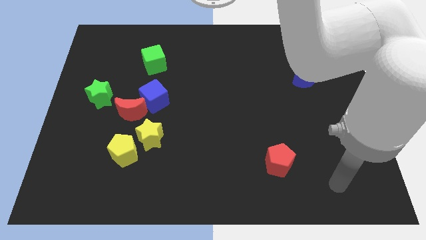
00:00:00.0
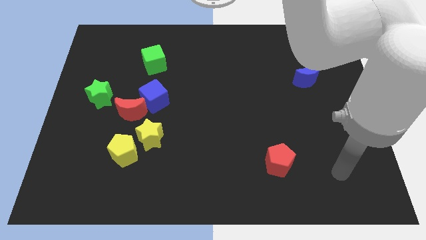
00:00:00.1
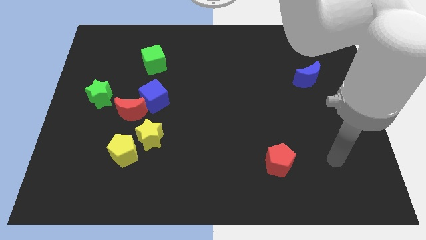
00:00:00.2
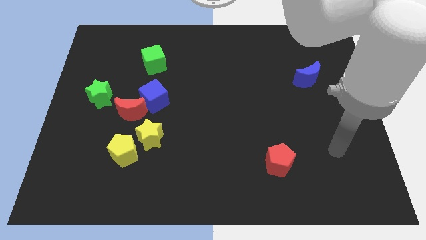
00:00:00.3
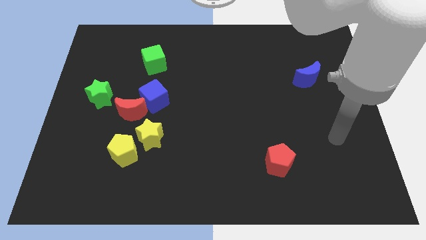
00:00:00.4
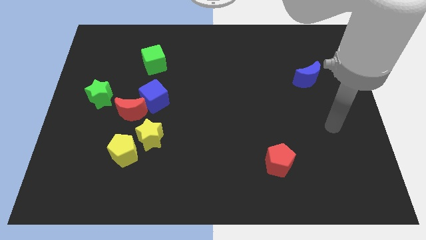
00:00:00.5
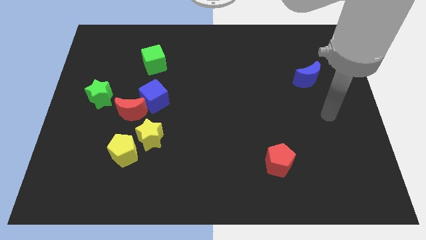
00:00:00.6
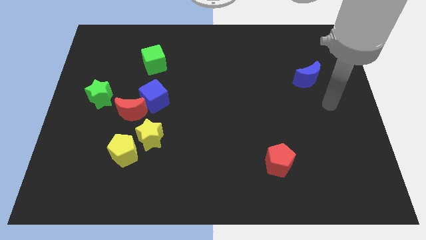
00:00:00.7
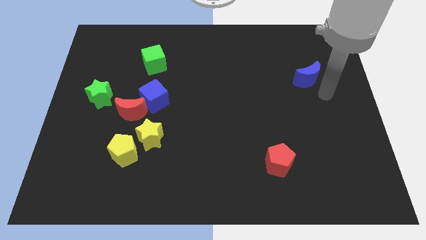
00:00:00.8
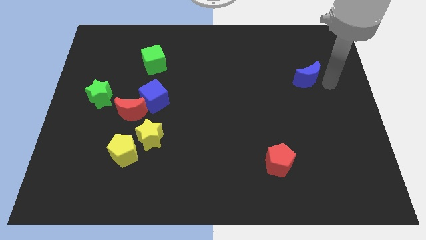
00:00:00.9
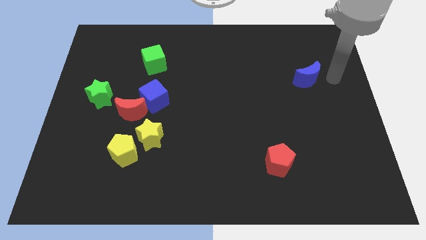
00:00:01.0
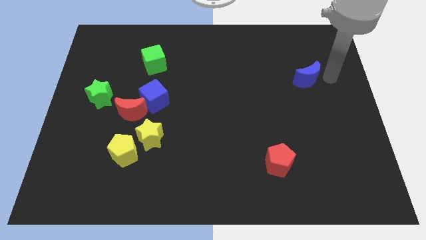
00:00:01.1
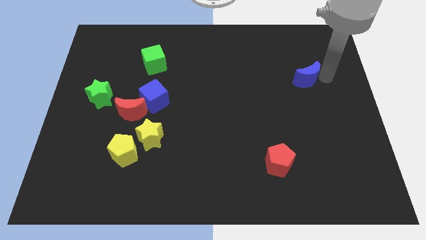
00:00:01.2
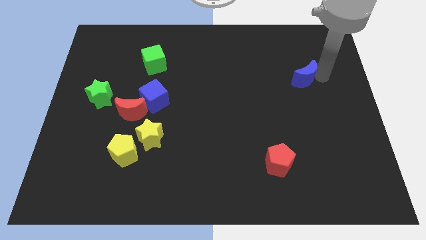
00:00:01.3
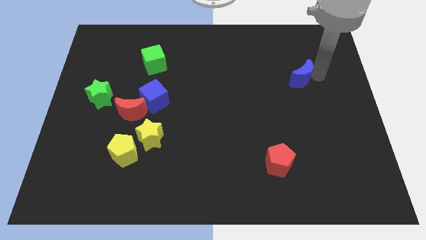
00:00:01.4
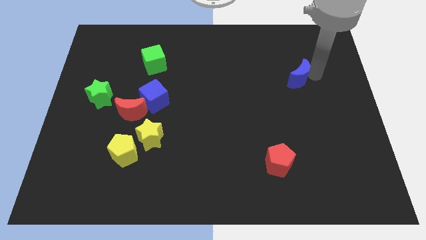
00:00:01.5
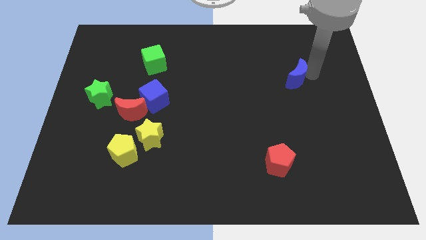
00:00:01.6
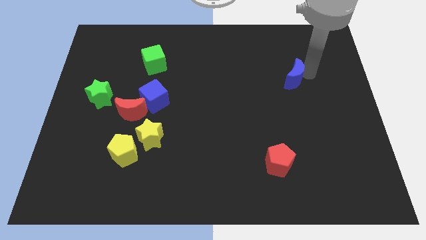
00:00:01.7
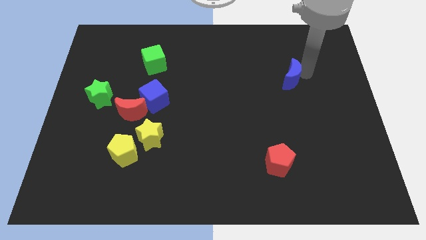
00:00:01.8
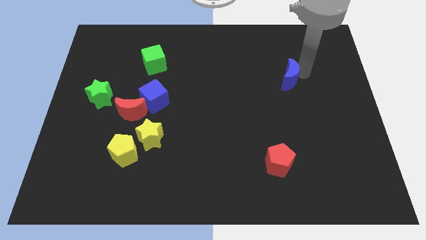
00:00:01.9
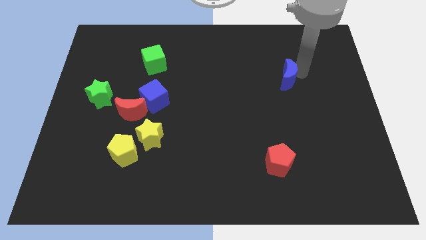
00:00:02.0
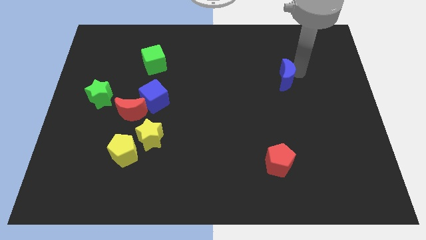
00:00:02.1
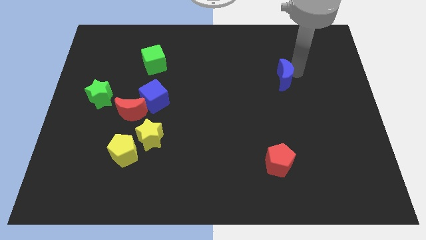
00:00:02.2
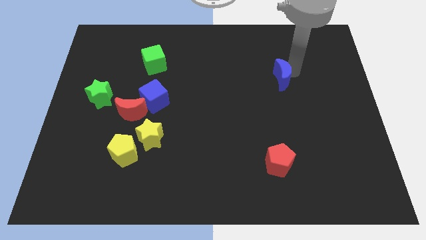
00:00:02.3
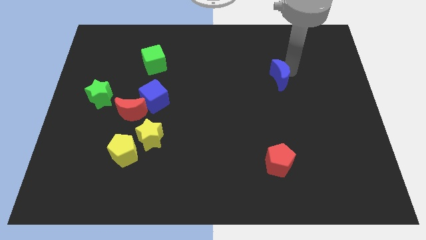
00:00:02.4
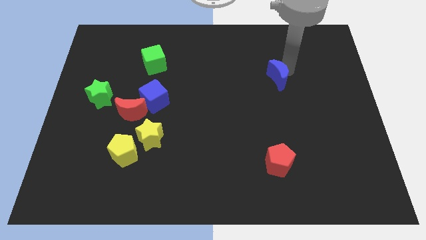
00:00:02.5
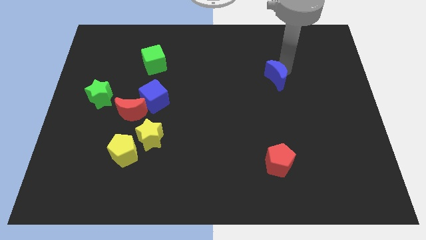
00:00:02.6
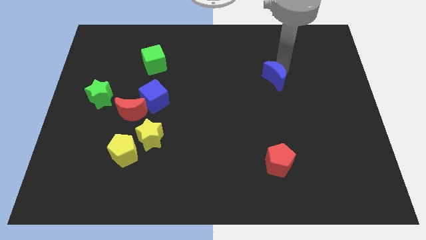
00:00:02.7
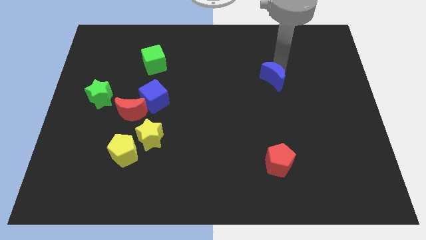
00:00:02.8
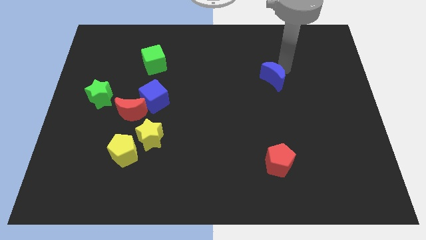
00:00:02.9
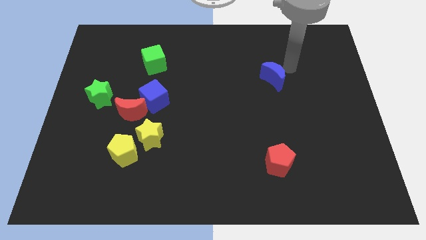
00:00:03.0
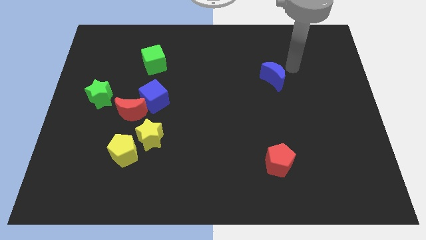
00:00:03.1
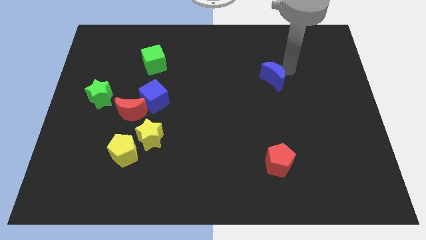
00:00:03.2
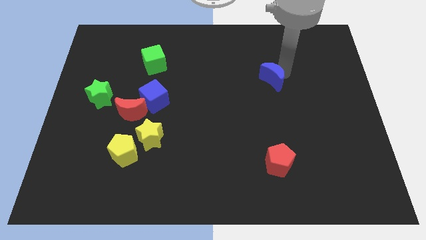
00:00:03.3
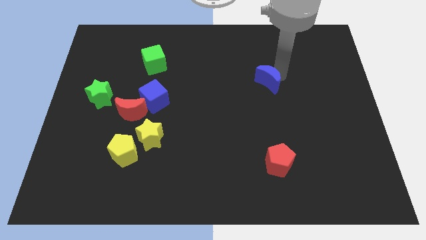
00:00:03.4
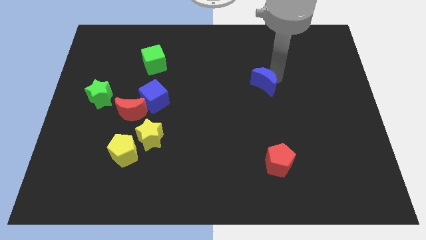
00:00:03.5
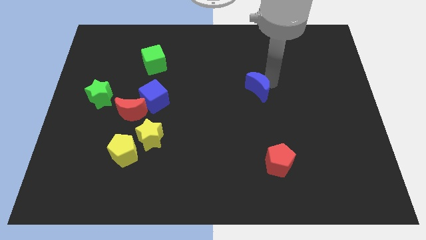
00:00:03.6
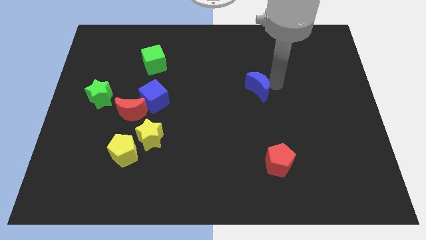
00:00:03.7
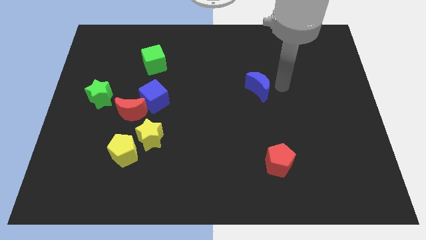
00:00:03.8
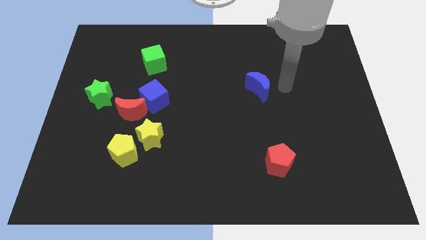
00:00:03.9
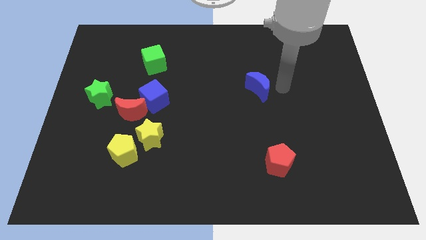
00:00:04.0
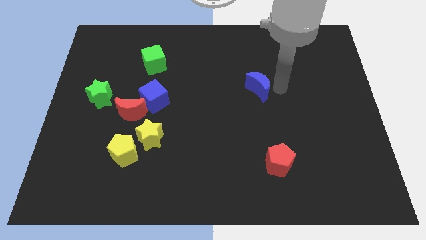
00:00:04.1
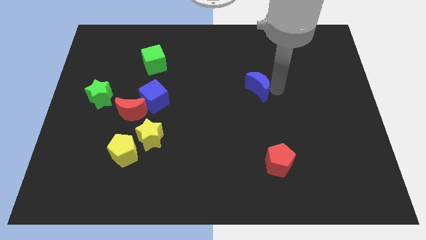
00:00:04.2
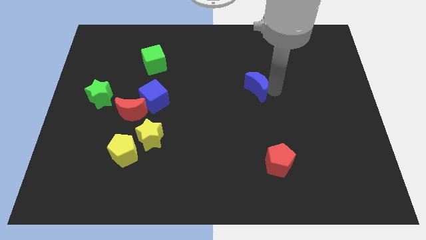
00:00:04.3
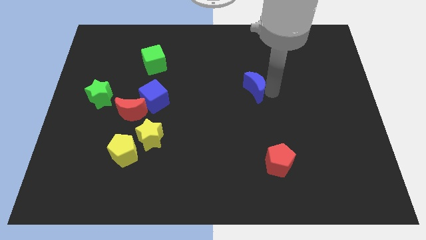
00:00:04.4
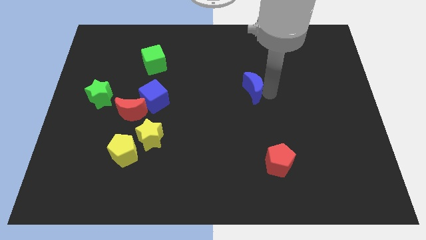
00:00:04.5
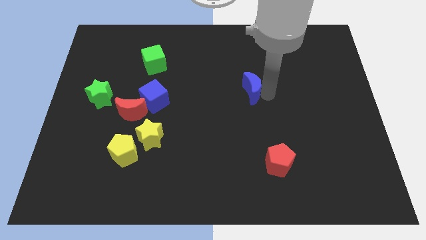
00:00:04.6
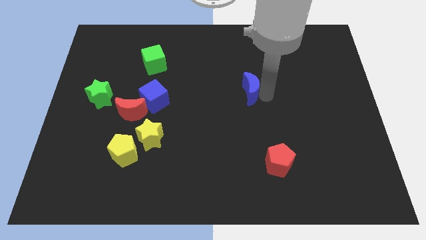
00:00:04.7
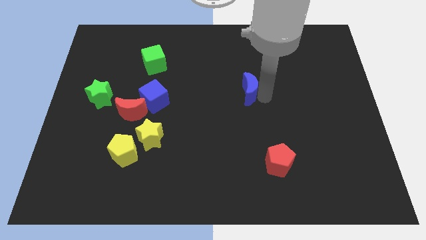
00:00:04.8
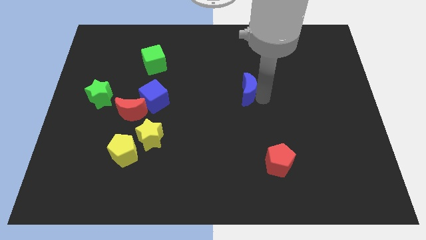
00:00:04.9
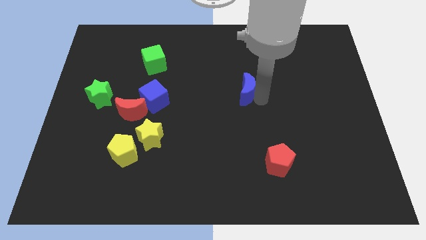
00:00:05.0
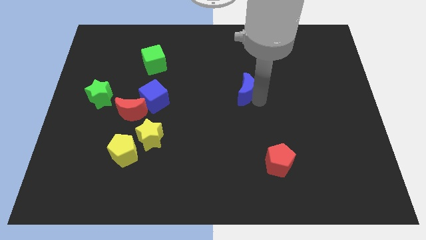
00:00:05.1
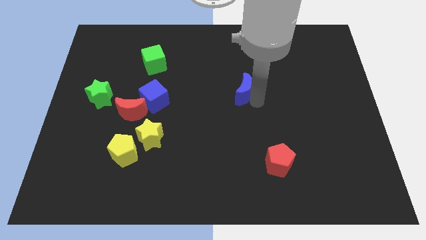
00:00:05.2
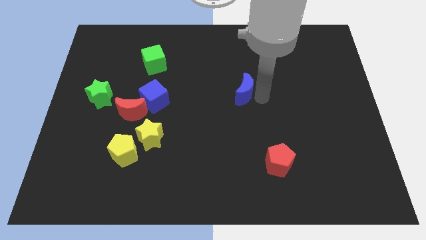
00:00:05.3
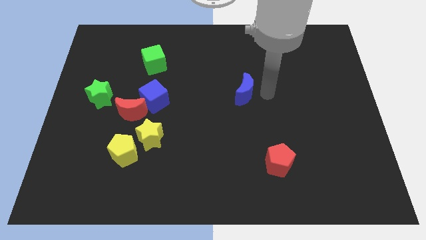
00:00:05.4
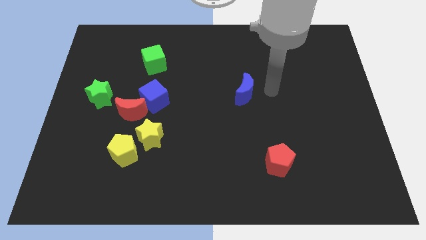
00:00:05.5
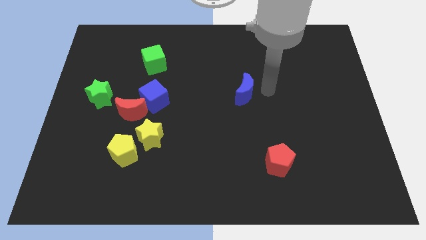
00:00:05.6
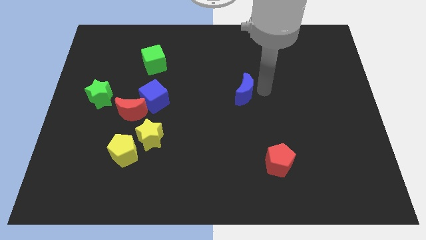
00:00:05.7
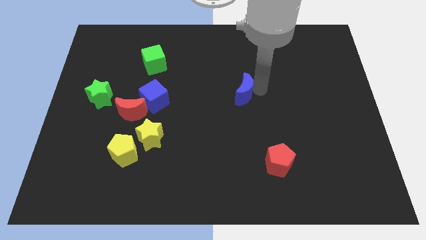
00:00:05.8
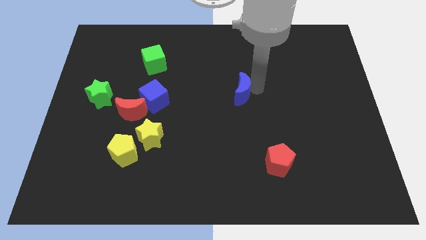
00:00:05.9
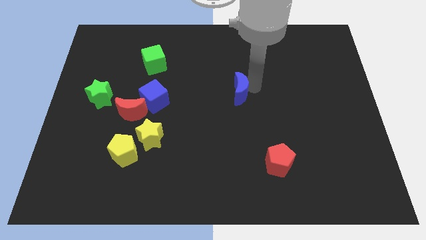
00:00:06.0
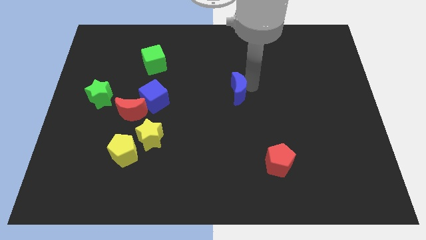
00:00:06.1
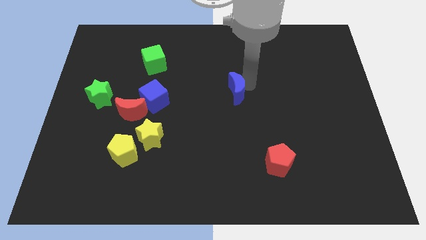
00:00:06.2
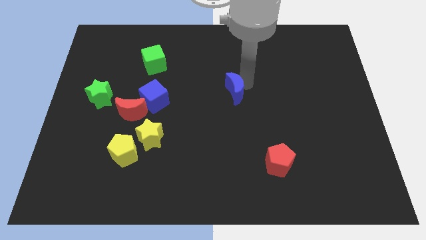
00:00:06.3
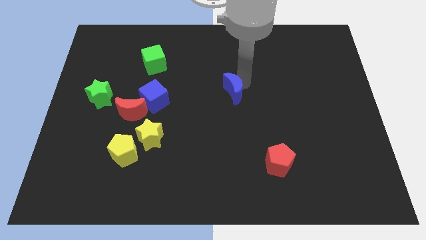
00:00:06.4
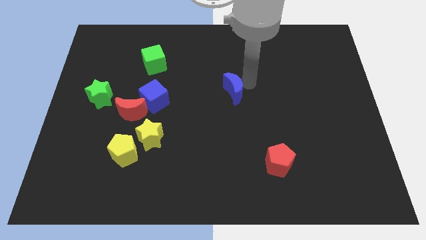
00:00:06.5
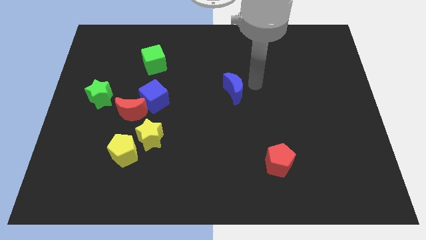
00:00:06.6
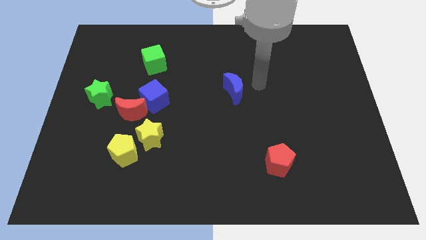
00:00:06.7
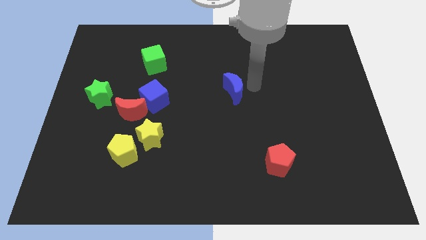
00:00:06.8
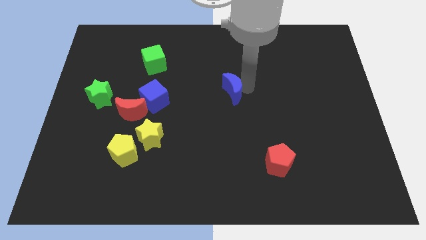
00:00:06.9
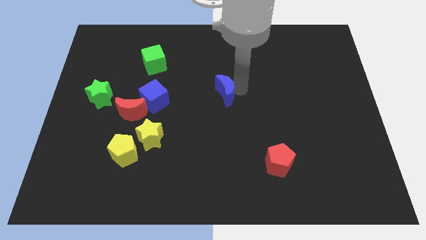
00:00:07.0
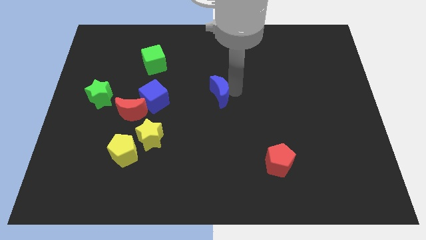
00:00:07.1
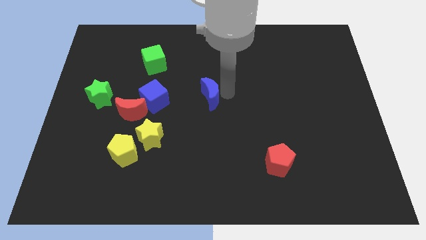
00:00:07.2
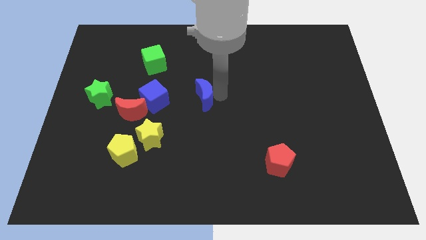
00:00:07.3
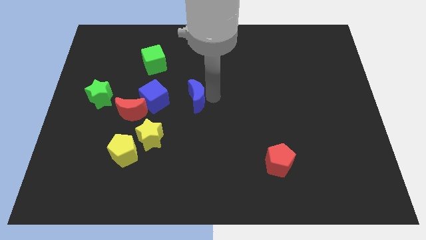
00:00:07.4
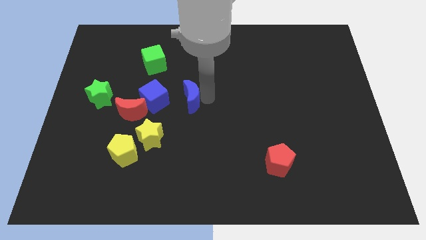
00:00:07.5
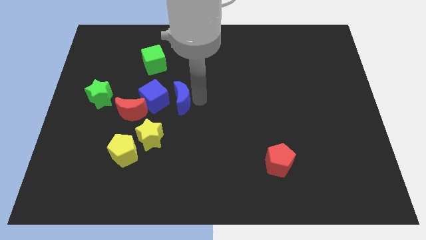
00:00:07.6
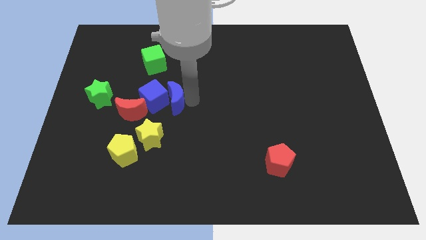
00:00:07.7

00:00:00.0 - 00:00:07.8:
slide the blue moon close to the blue cube

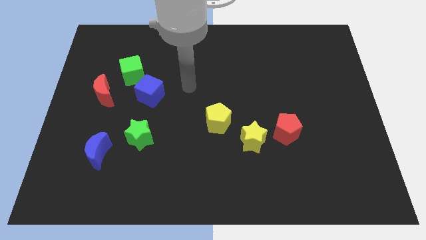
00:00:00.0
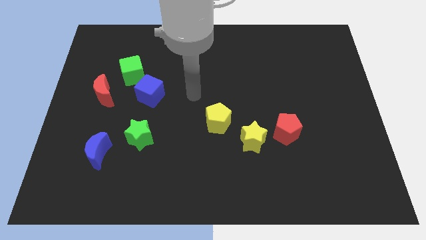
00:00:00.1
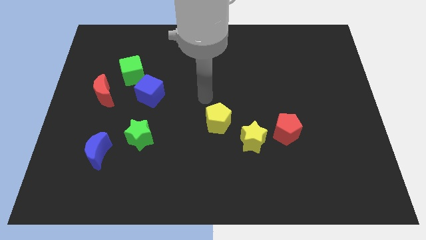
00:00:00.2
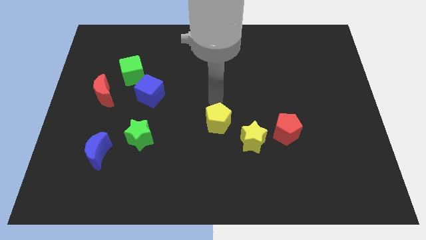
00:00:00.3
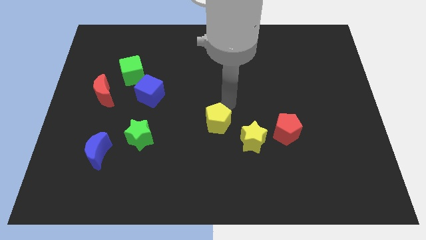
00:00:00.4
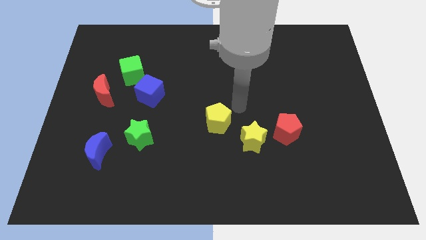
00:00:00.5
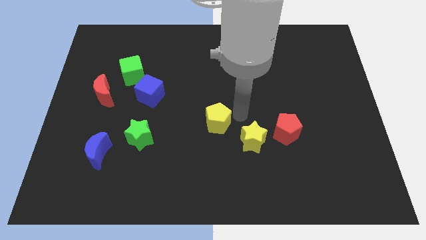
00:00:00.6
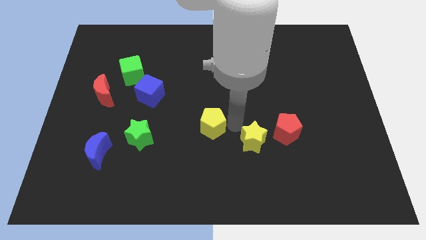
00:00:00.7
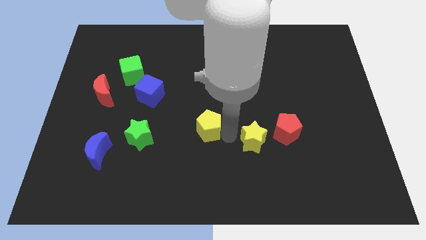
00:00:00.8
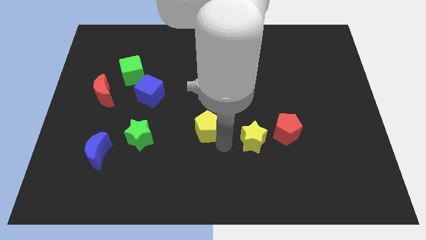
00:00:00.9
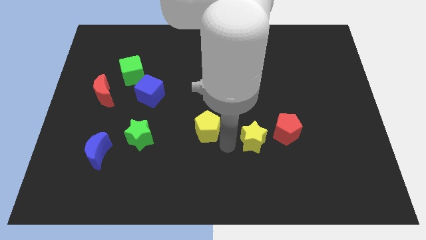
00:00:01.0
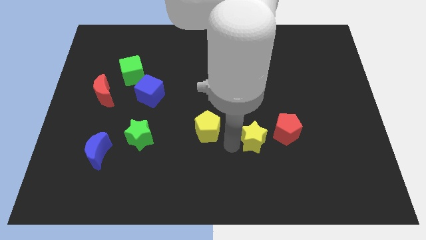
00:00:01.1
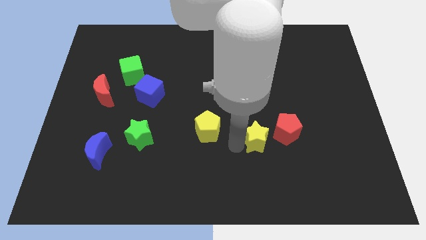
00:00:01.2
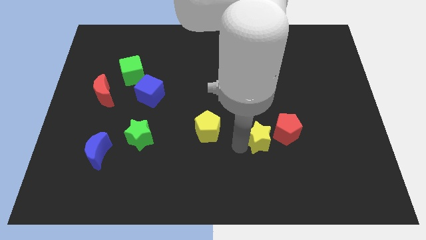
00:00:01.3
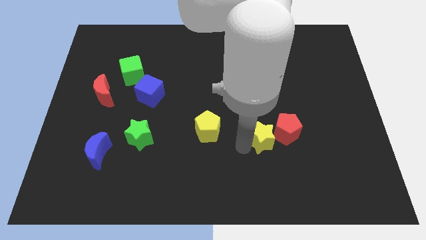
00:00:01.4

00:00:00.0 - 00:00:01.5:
push the yellow star close to the red pentagon
